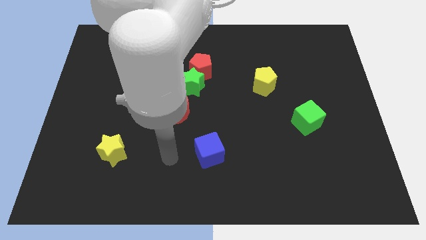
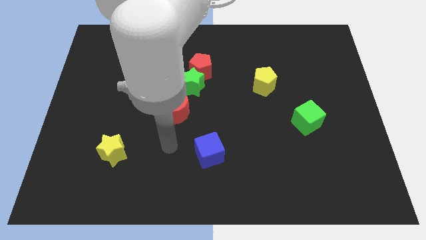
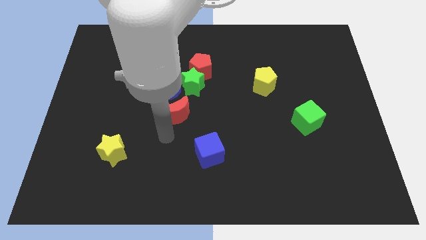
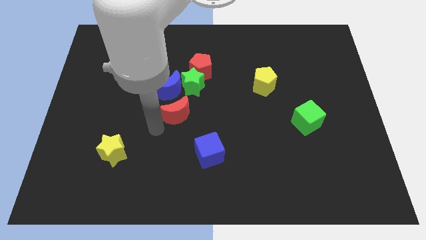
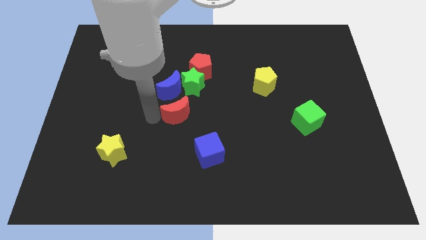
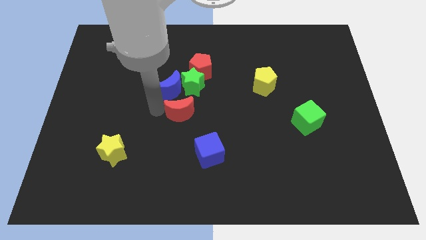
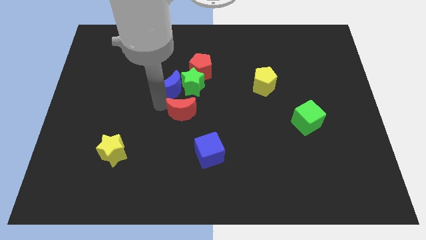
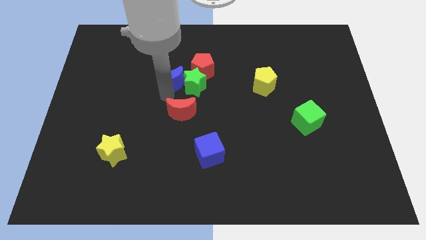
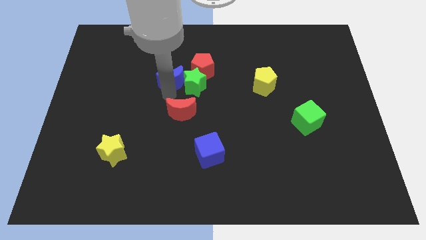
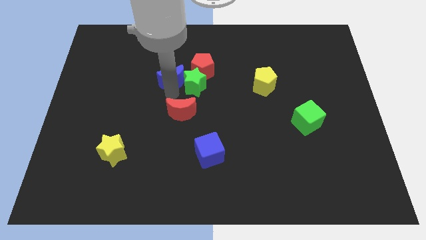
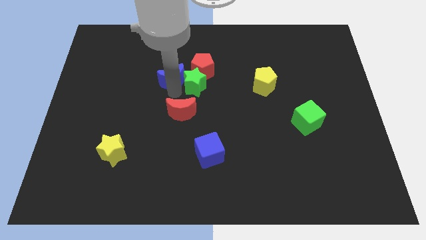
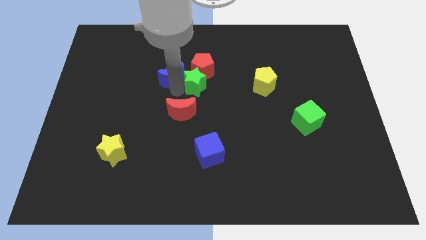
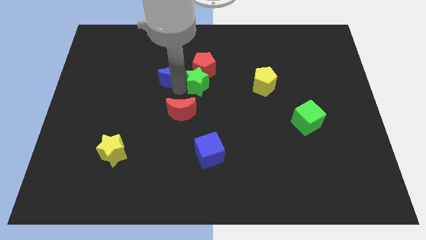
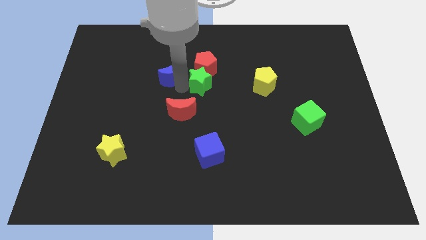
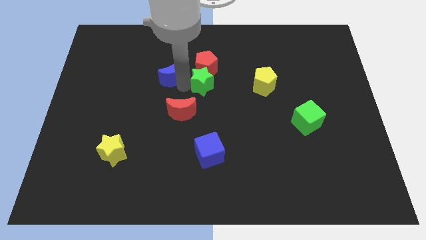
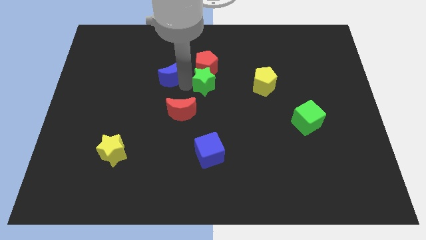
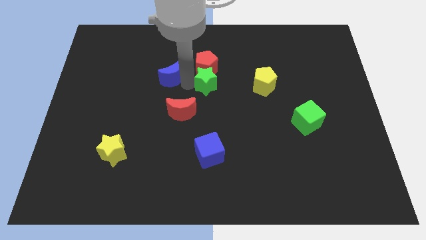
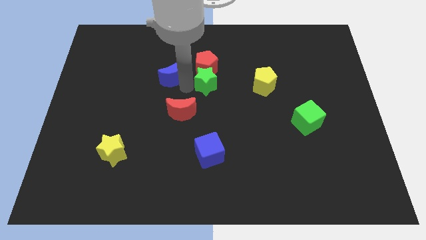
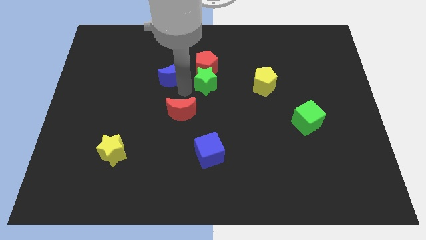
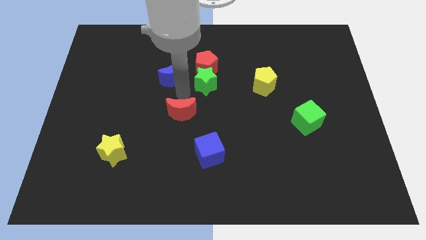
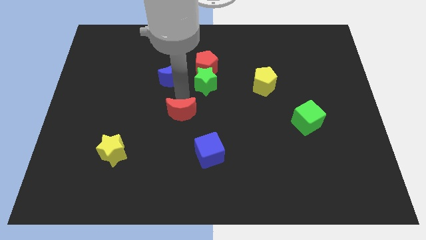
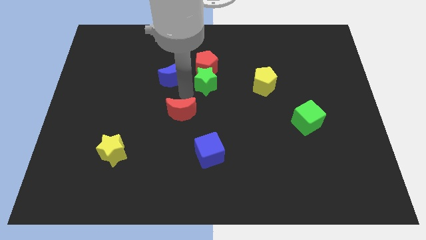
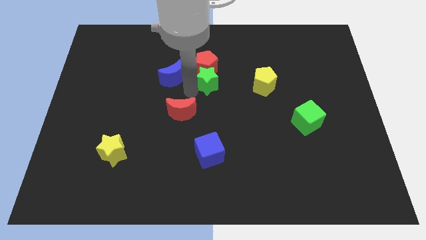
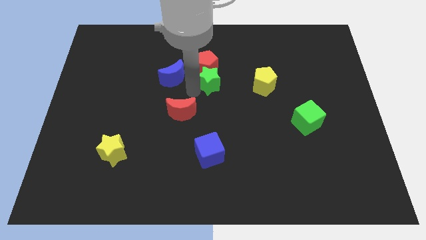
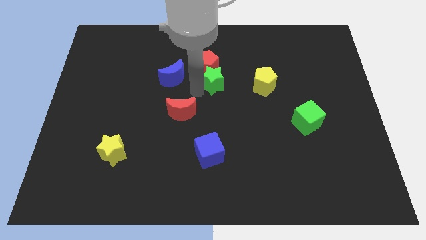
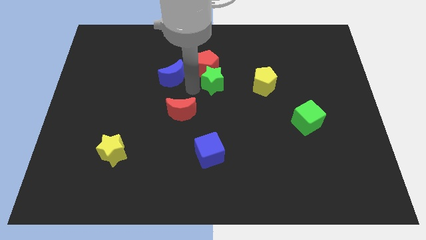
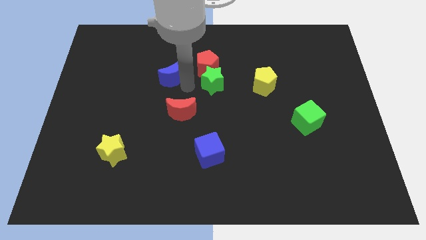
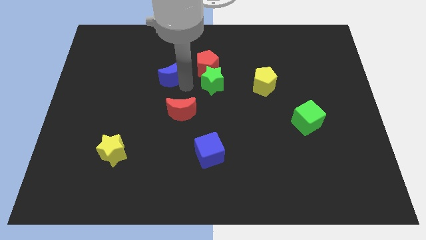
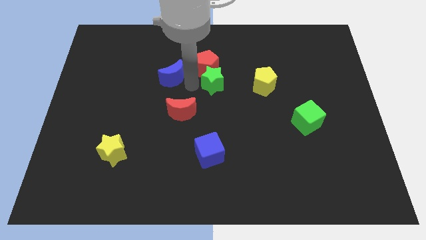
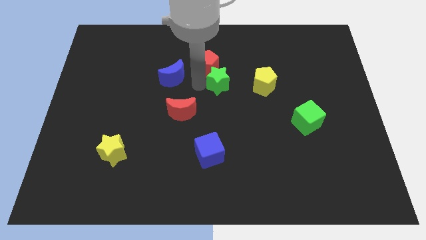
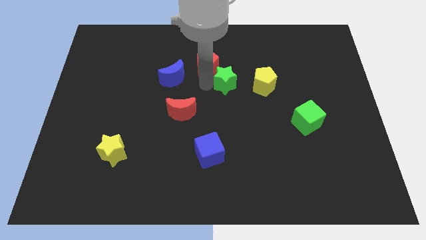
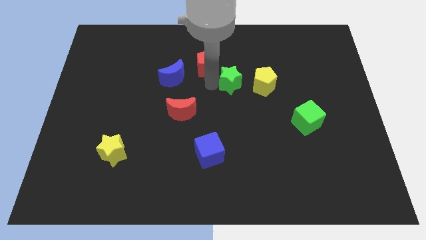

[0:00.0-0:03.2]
move the green star away from the clump

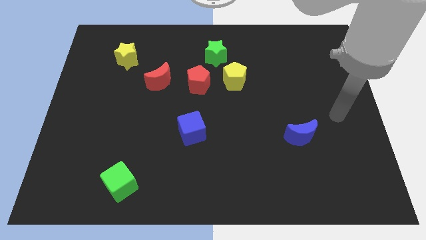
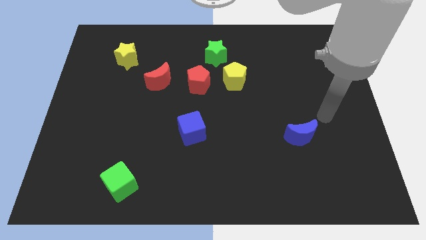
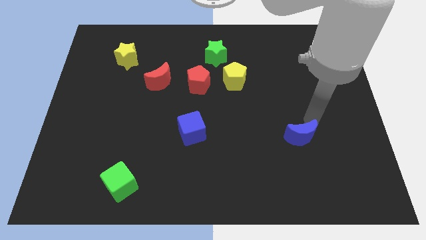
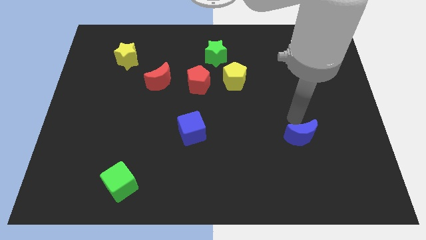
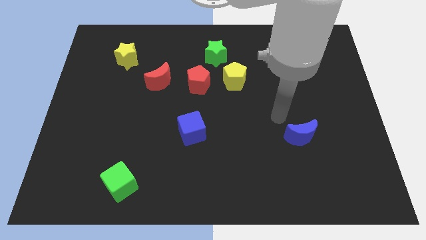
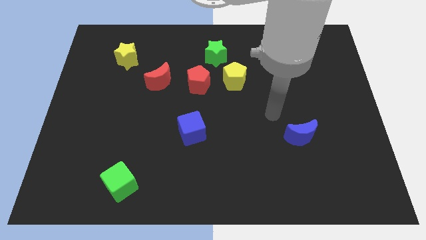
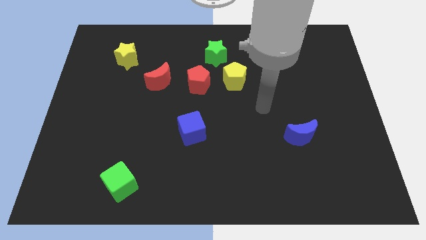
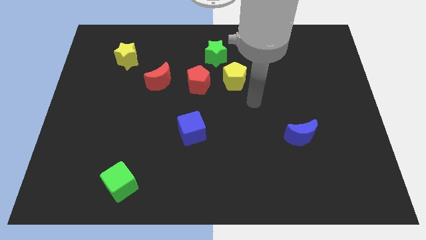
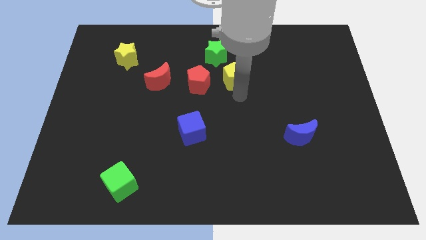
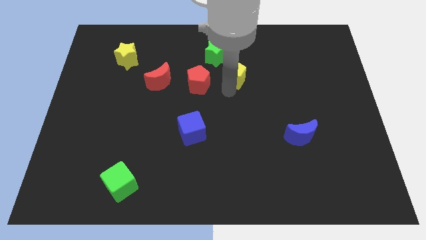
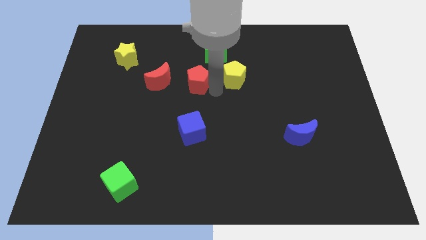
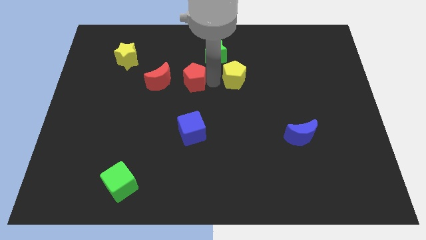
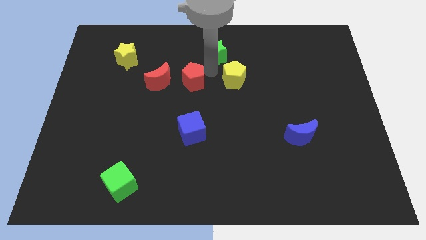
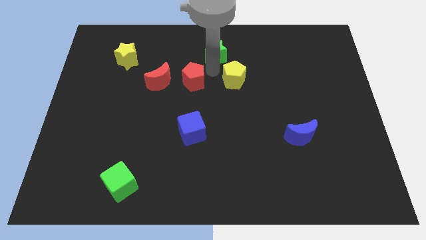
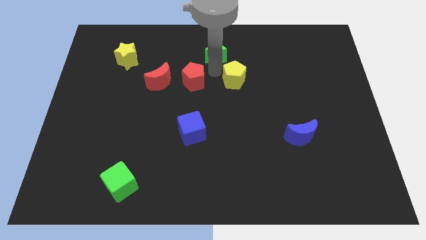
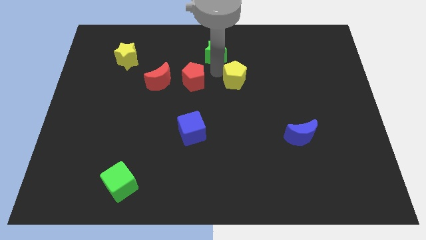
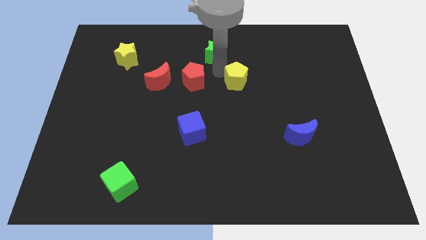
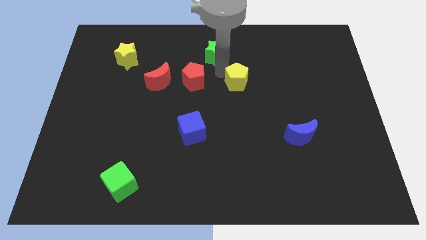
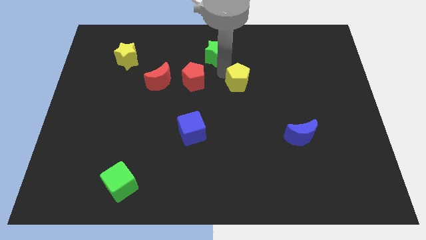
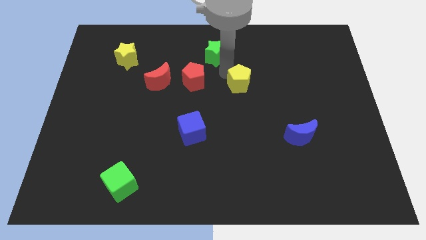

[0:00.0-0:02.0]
pull the yellow pentagon apart from the red pentagon and green star

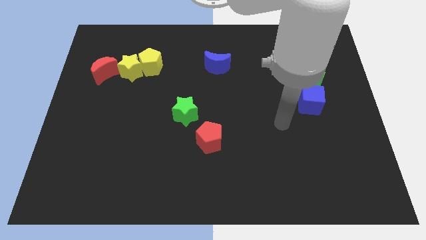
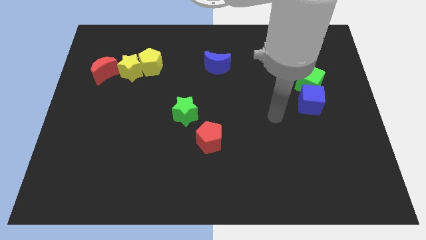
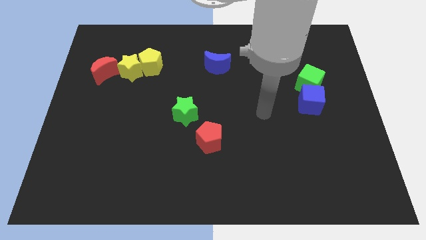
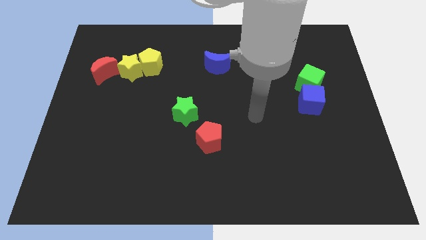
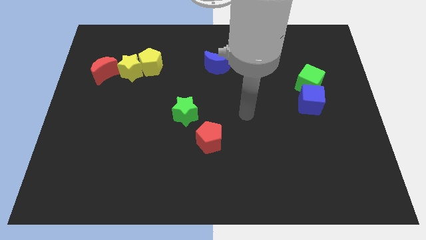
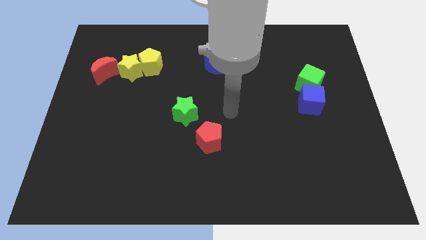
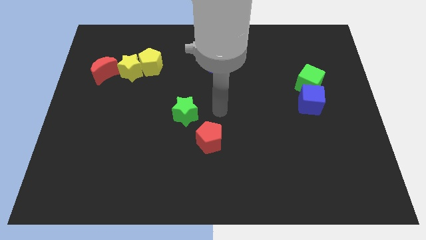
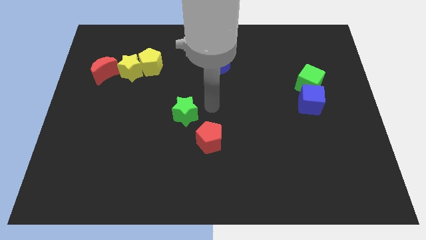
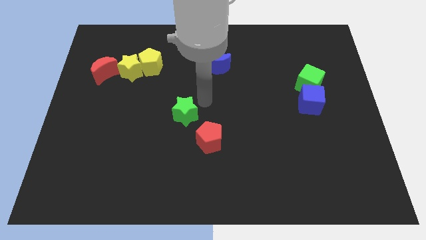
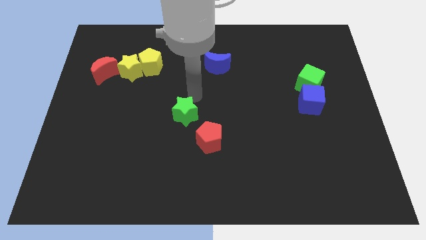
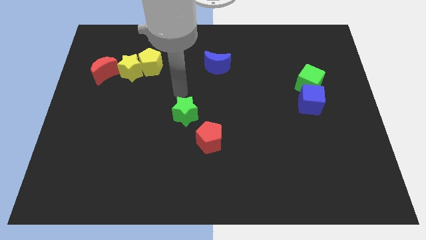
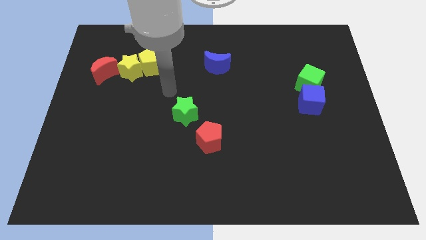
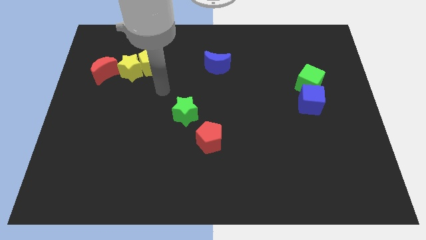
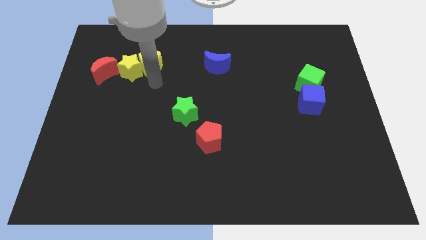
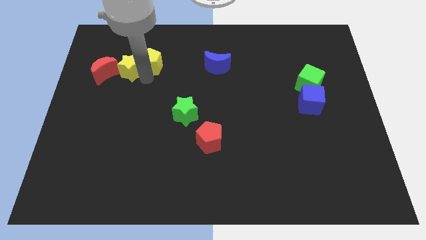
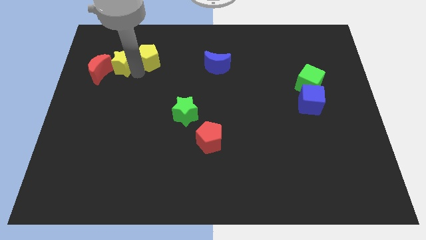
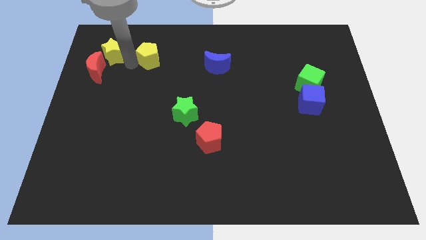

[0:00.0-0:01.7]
pull the yellow pentagon apart from the yellow star

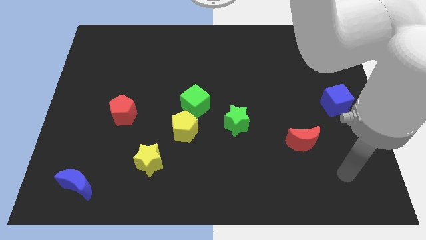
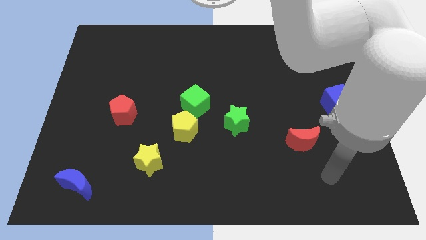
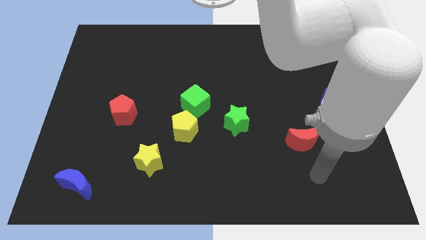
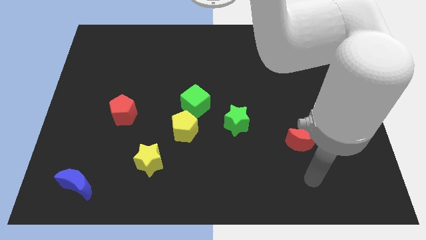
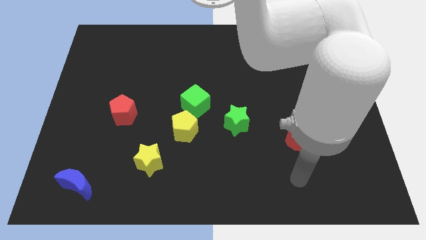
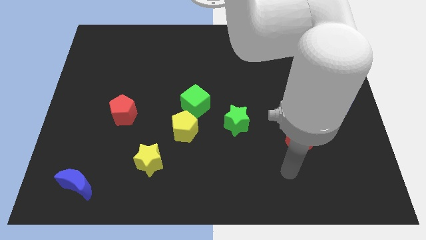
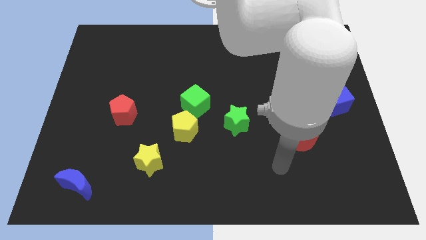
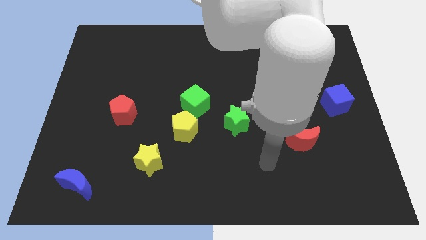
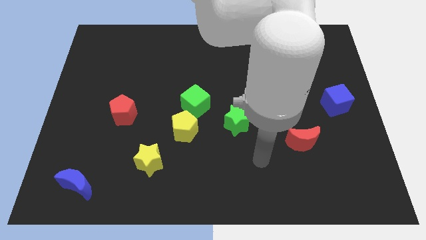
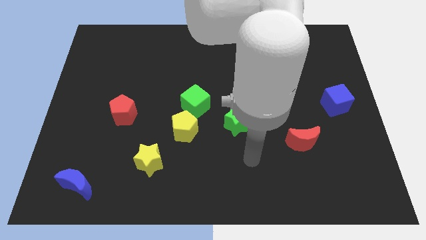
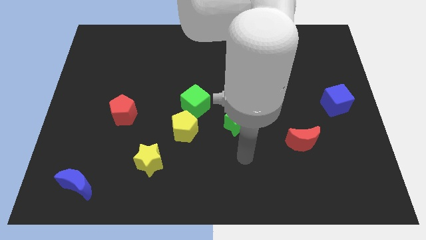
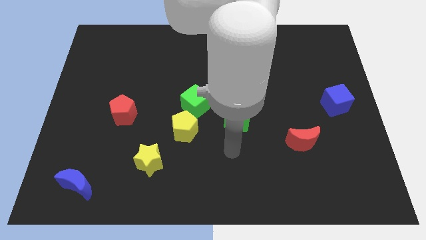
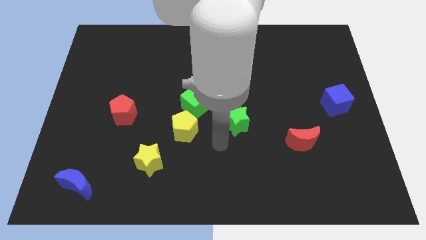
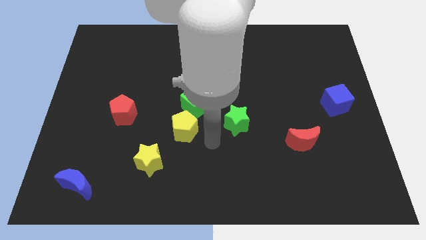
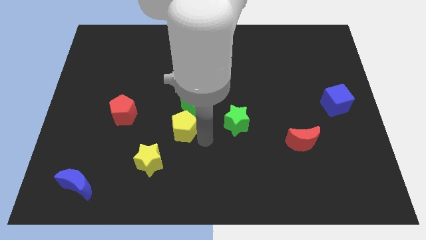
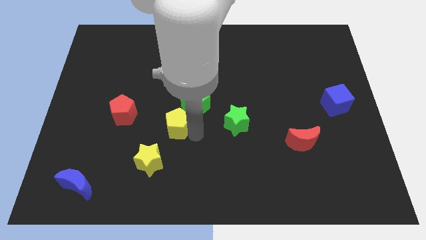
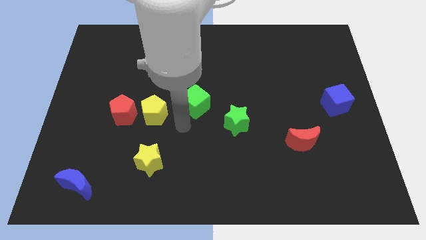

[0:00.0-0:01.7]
pull the green cube apart from the yellow pentagon

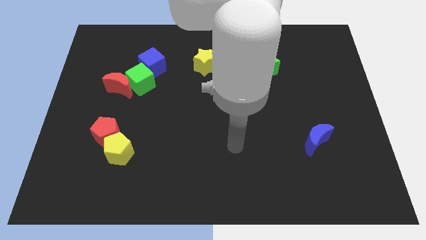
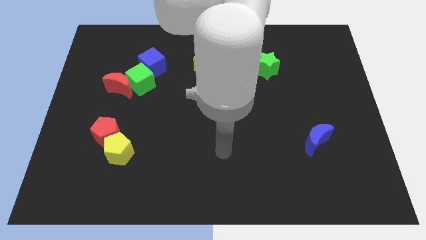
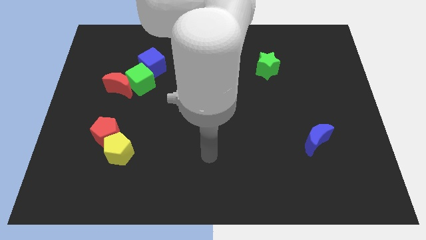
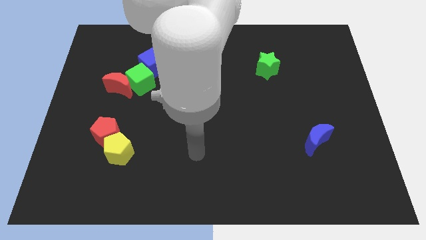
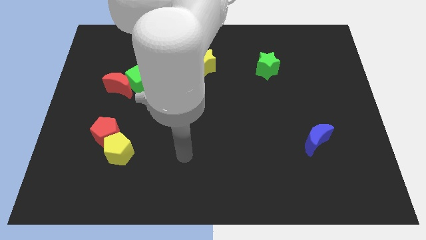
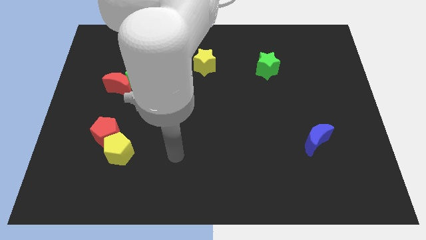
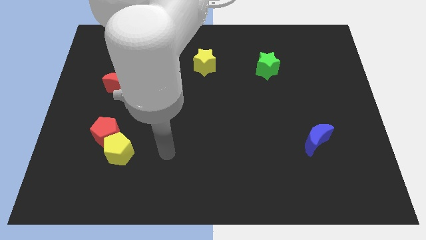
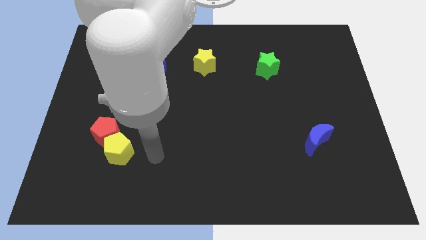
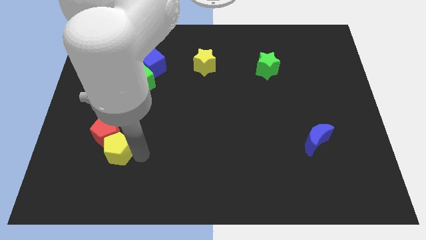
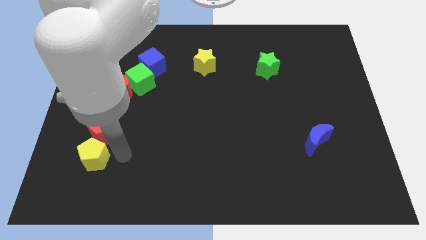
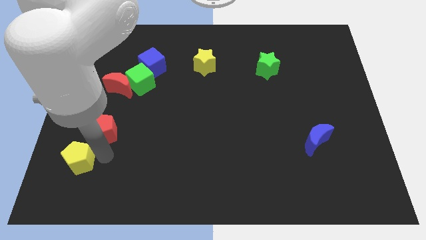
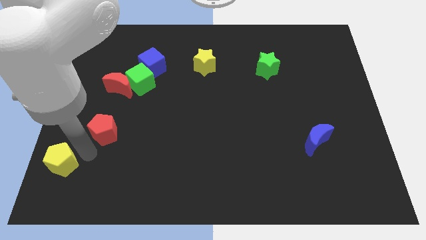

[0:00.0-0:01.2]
pull the red pentagon apart from the yellow pentagon
